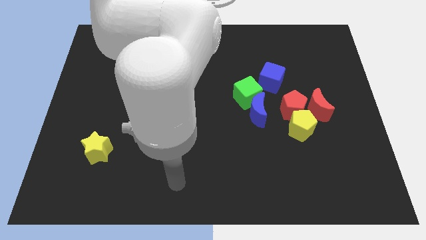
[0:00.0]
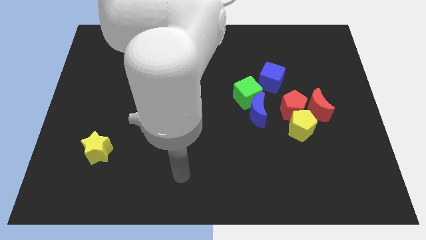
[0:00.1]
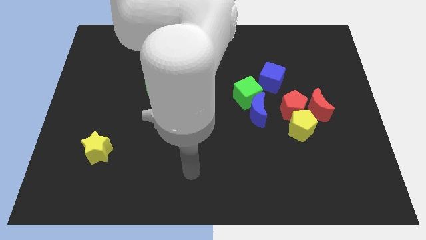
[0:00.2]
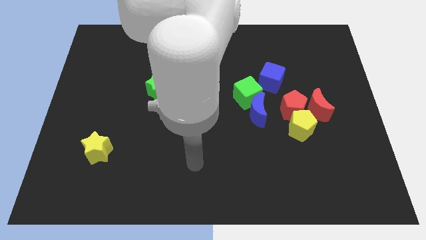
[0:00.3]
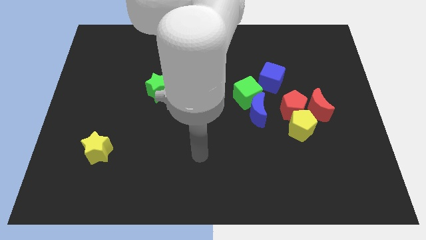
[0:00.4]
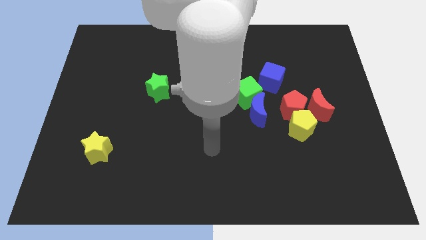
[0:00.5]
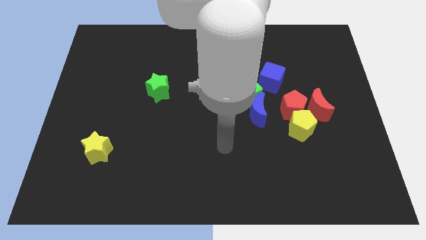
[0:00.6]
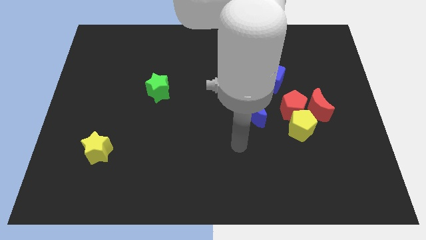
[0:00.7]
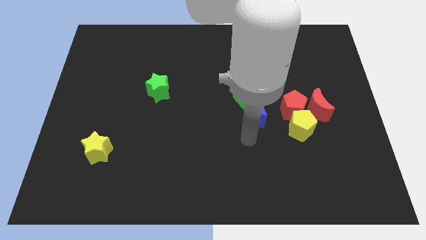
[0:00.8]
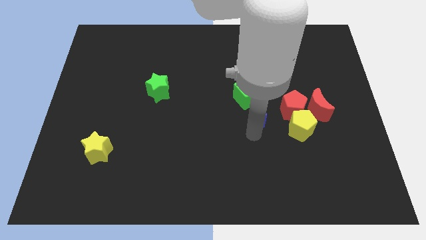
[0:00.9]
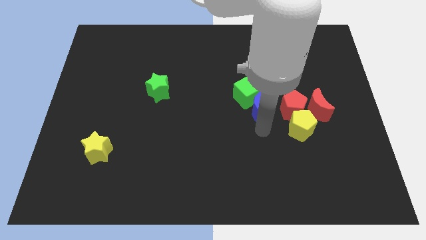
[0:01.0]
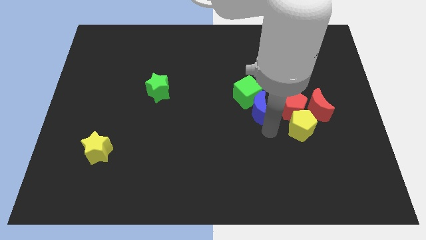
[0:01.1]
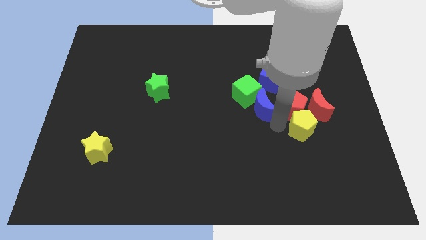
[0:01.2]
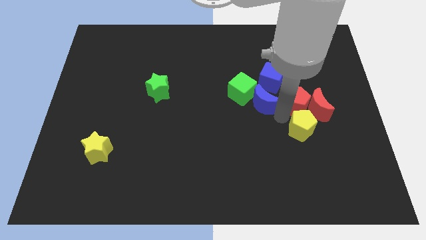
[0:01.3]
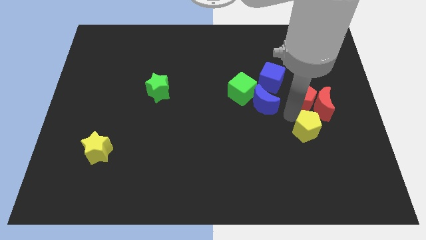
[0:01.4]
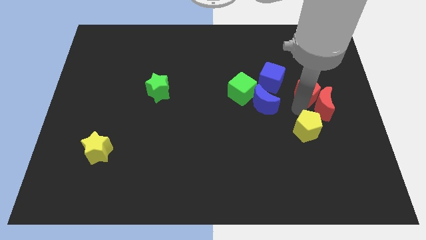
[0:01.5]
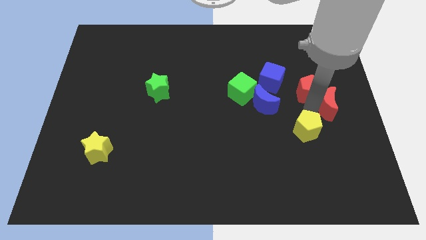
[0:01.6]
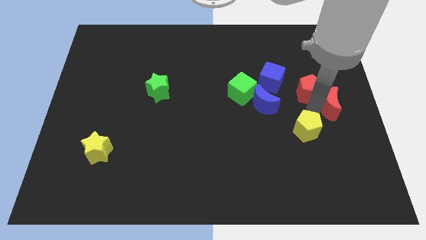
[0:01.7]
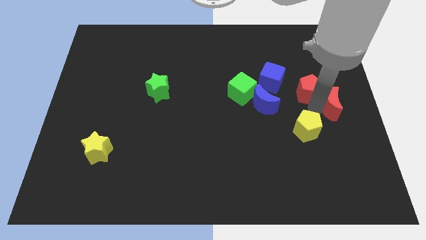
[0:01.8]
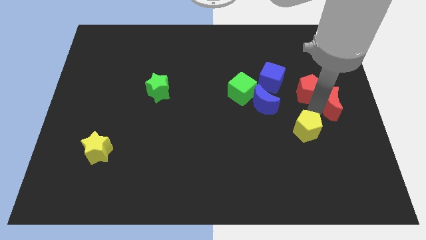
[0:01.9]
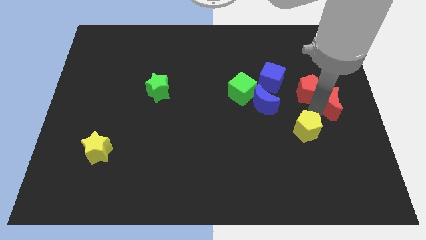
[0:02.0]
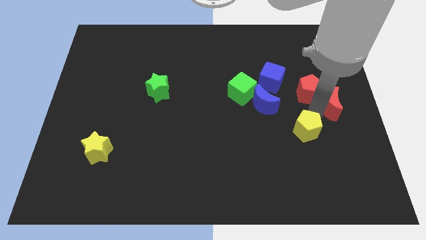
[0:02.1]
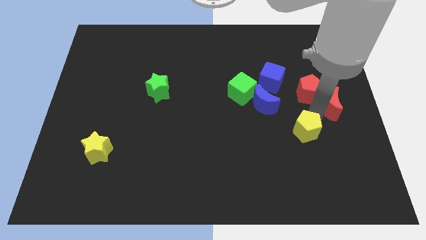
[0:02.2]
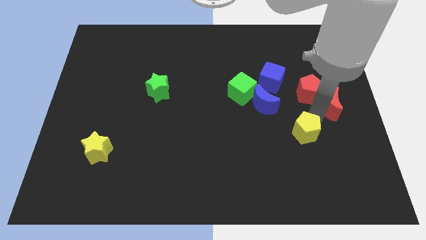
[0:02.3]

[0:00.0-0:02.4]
pull the yellow pentagon apart from the red pentagon and red moon

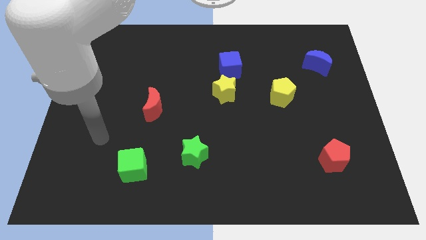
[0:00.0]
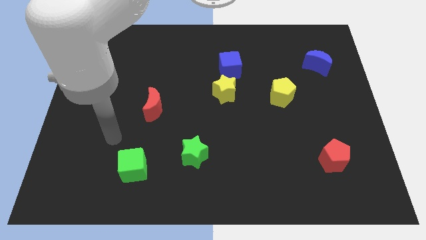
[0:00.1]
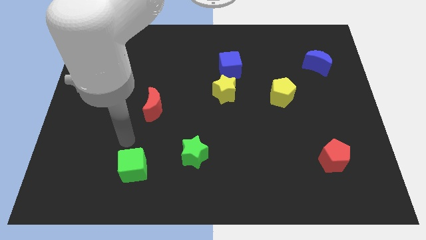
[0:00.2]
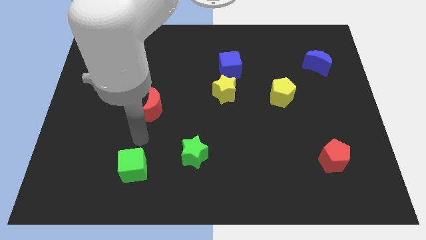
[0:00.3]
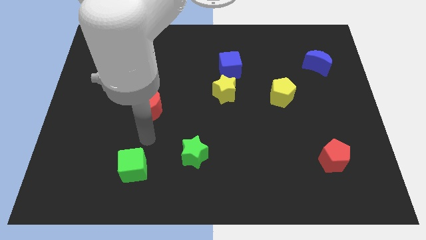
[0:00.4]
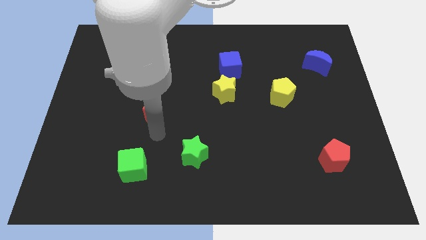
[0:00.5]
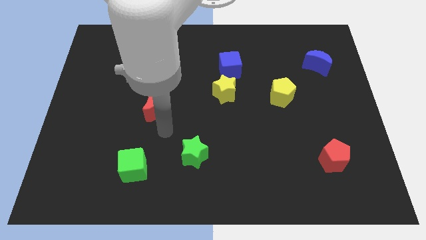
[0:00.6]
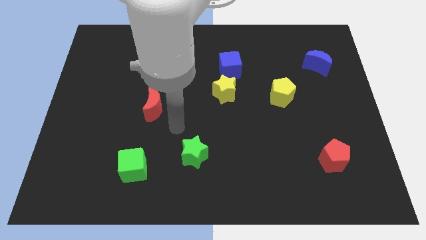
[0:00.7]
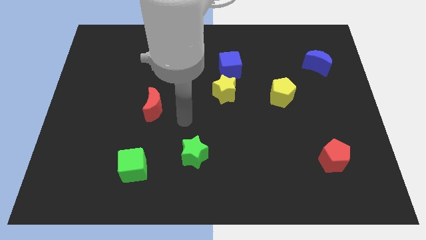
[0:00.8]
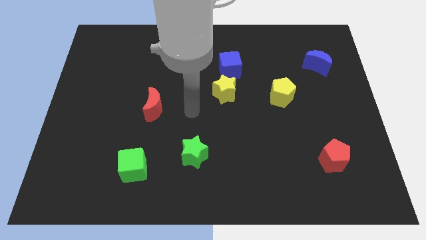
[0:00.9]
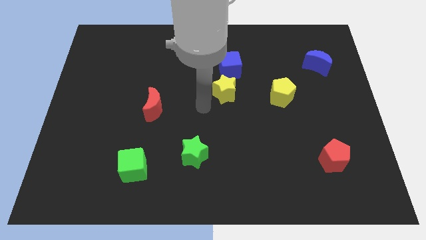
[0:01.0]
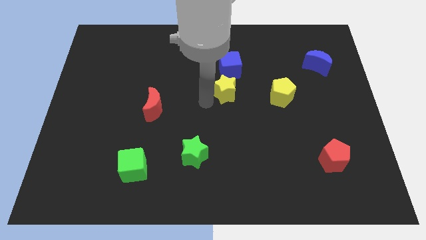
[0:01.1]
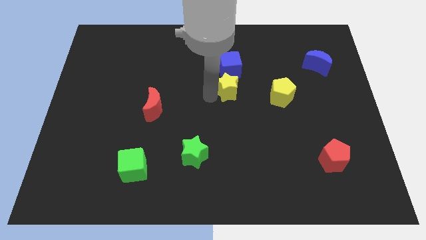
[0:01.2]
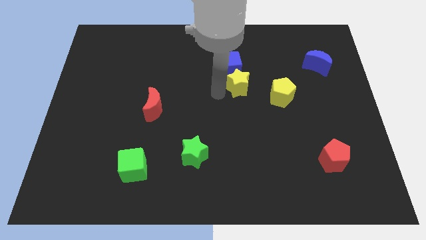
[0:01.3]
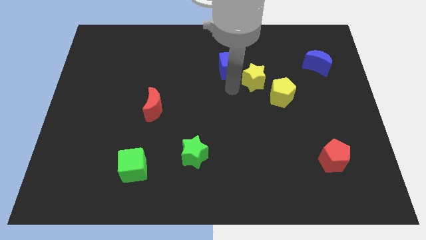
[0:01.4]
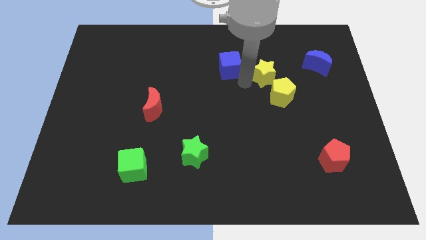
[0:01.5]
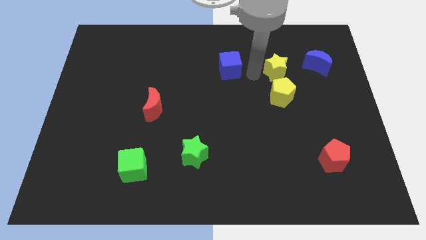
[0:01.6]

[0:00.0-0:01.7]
pull the blue cube apart from the yellow star

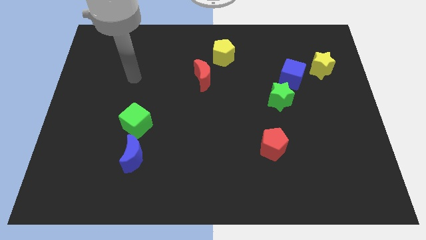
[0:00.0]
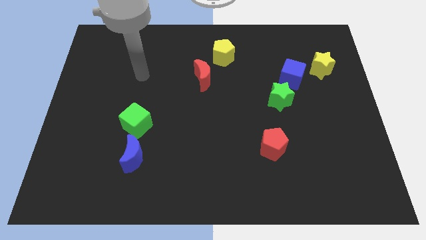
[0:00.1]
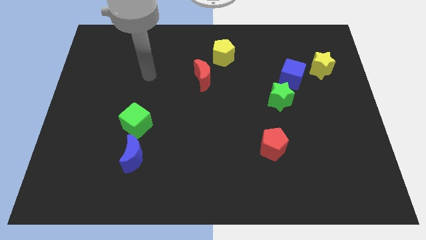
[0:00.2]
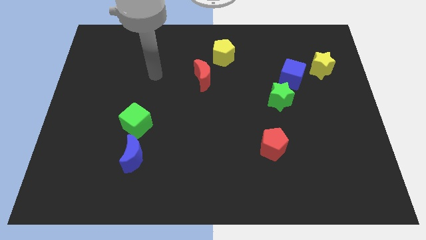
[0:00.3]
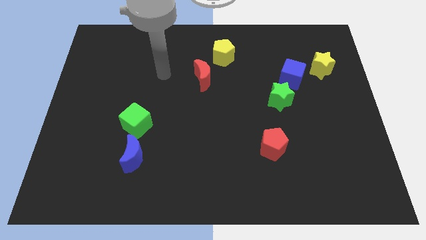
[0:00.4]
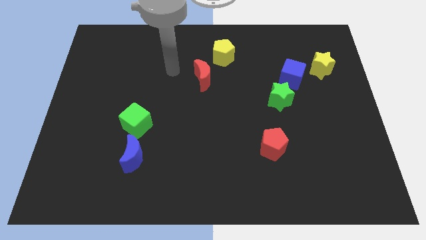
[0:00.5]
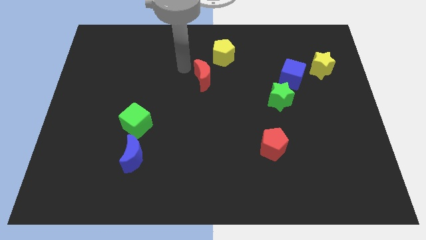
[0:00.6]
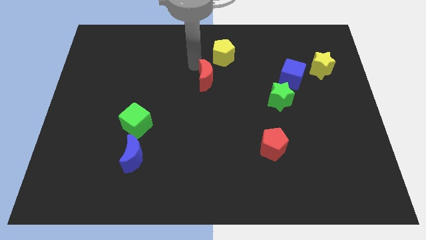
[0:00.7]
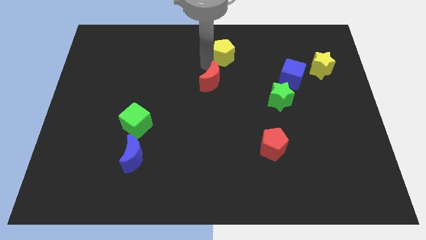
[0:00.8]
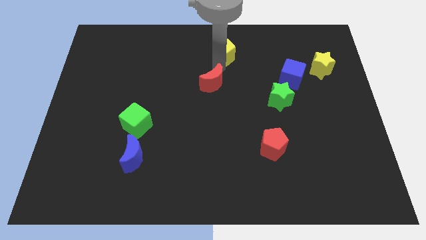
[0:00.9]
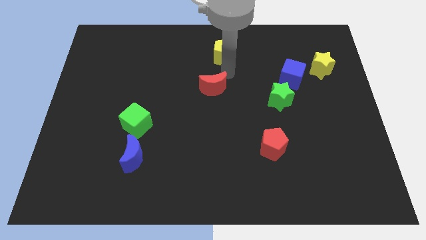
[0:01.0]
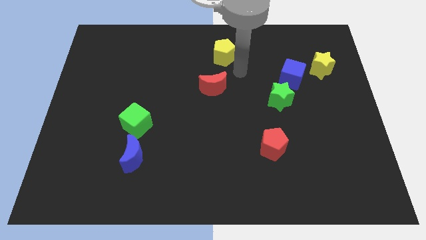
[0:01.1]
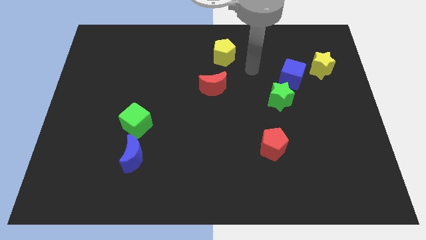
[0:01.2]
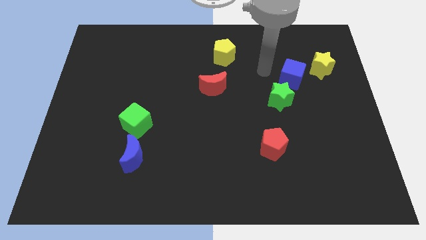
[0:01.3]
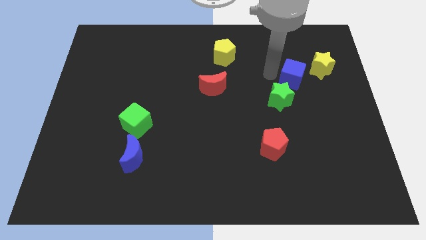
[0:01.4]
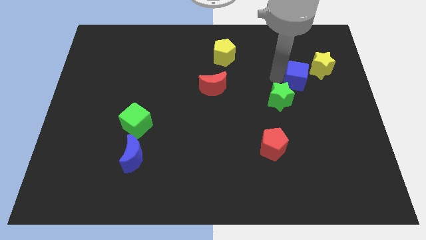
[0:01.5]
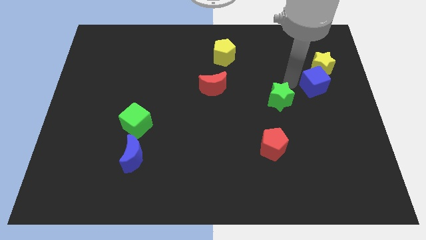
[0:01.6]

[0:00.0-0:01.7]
pull the green star apart from the blue cube

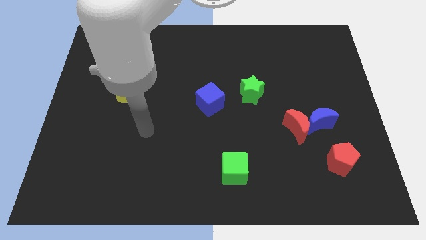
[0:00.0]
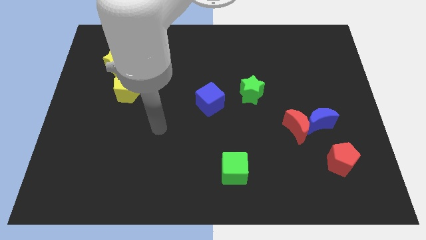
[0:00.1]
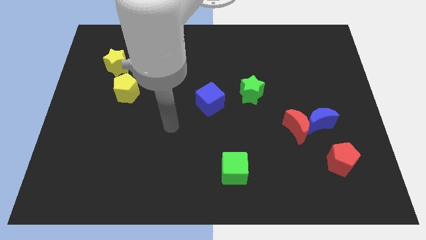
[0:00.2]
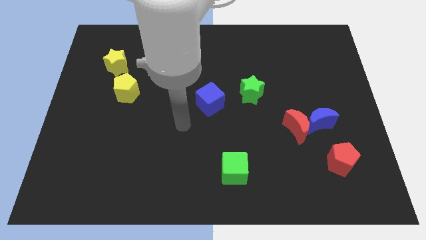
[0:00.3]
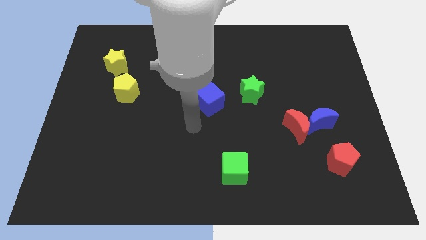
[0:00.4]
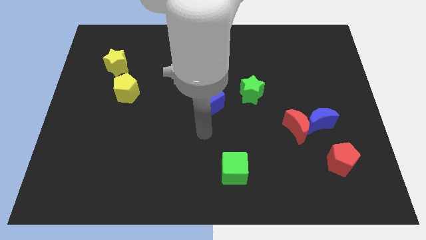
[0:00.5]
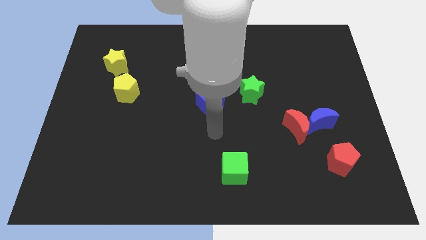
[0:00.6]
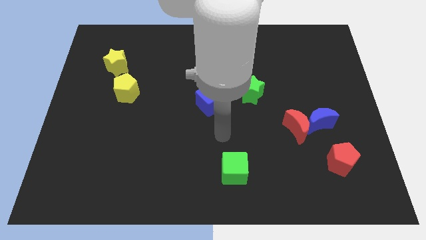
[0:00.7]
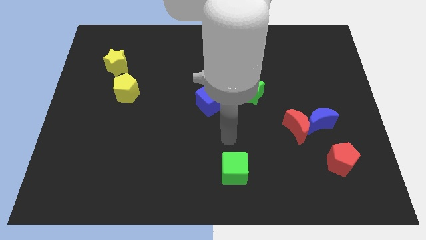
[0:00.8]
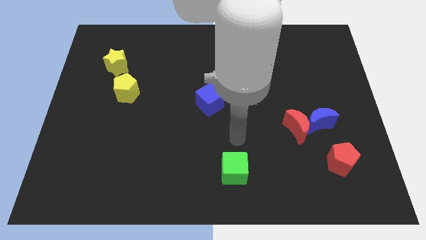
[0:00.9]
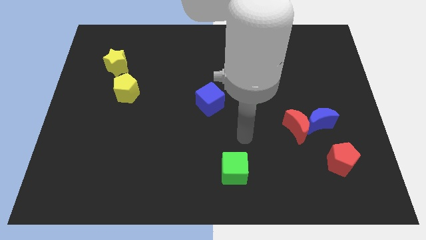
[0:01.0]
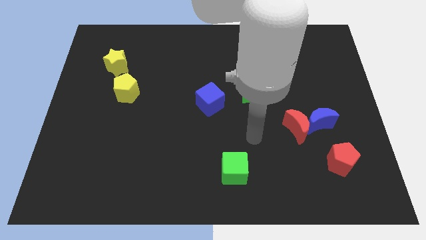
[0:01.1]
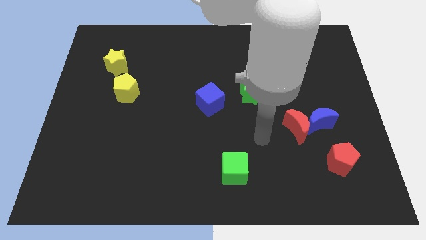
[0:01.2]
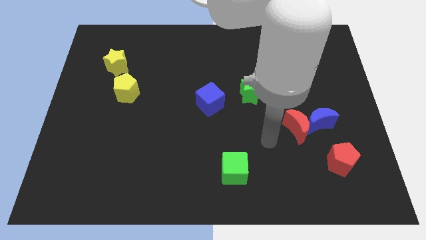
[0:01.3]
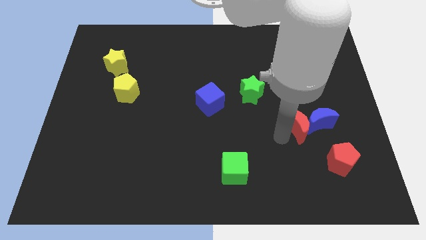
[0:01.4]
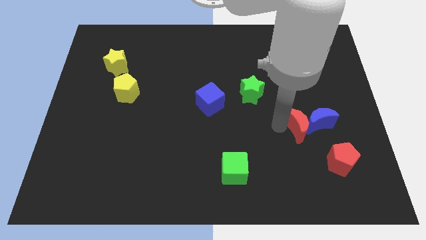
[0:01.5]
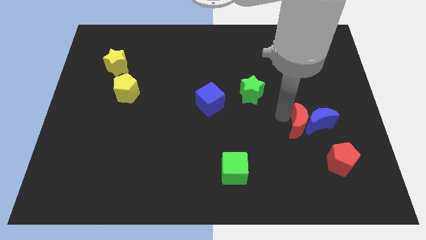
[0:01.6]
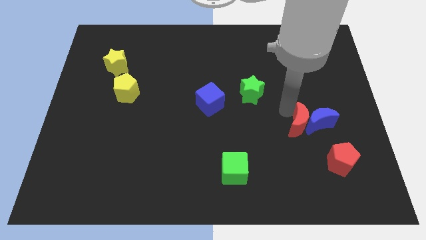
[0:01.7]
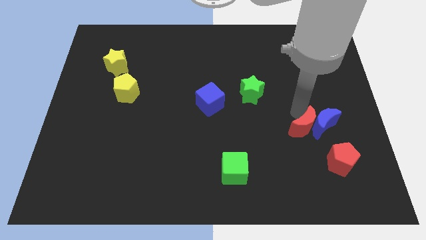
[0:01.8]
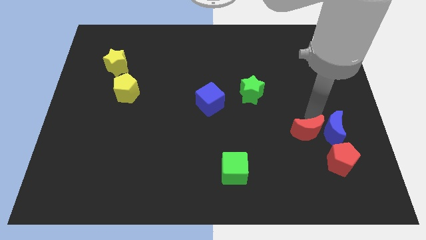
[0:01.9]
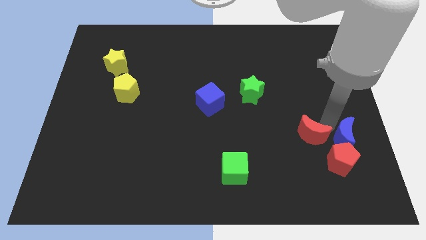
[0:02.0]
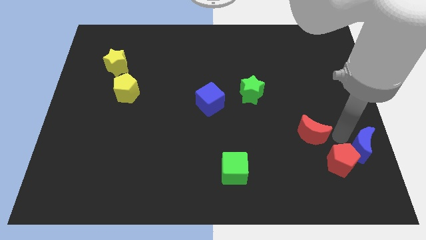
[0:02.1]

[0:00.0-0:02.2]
move the red moon away from the blue moon

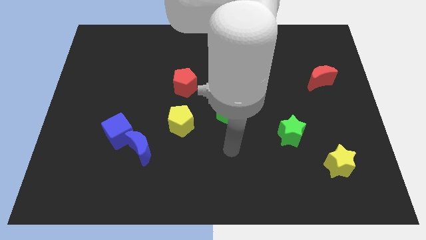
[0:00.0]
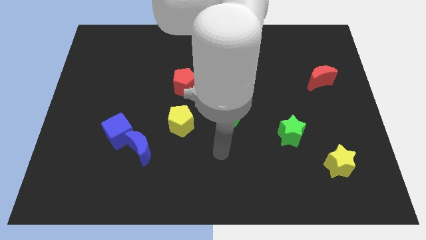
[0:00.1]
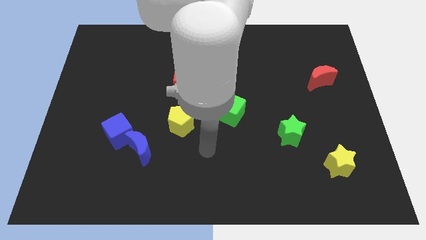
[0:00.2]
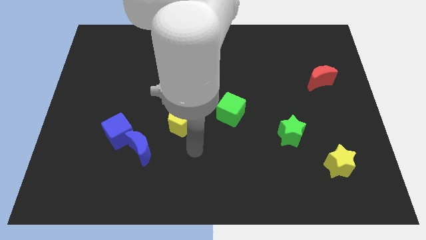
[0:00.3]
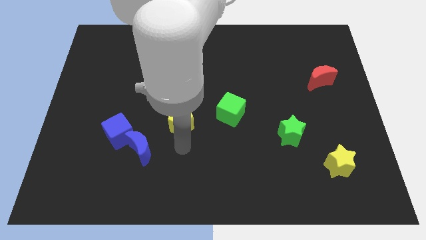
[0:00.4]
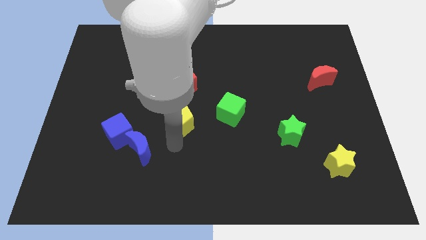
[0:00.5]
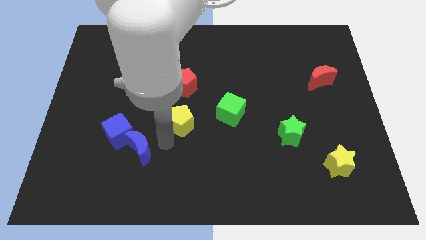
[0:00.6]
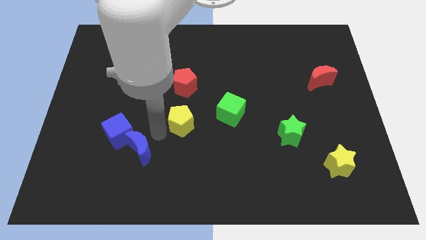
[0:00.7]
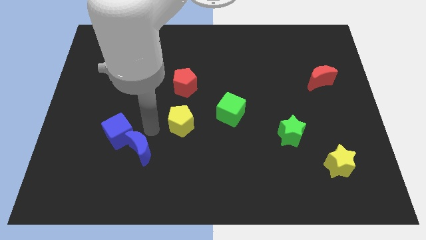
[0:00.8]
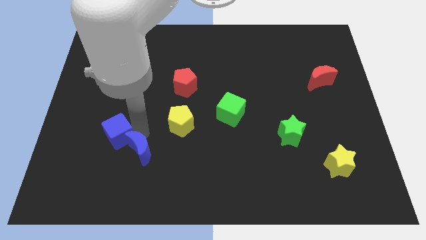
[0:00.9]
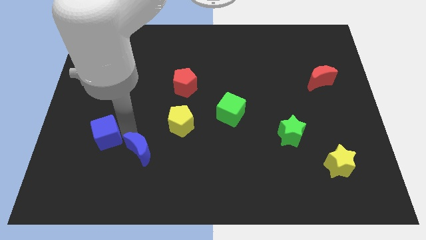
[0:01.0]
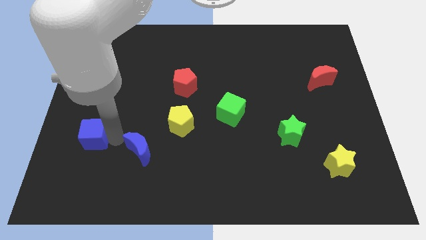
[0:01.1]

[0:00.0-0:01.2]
separate the blue moon from the blue cube

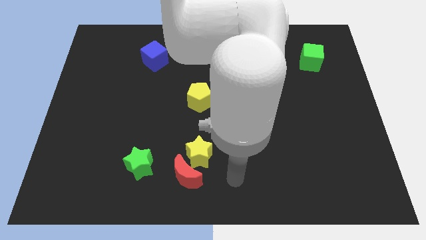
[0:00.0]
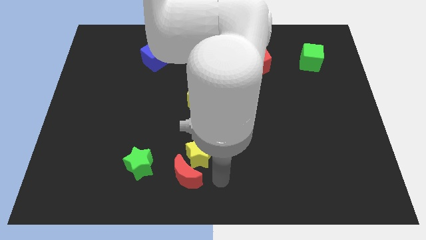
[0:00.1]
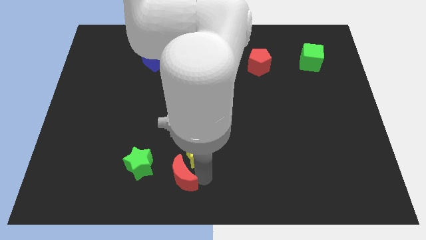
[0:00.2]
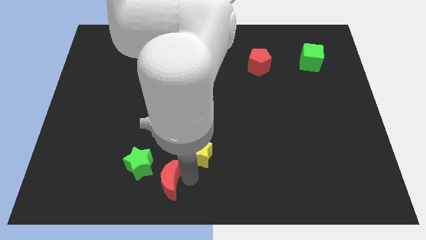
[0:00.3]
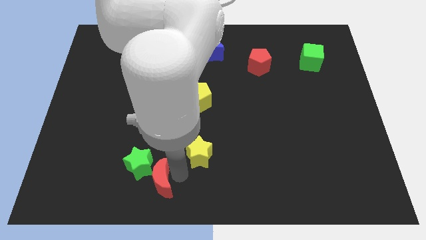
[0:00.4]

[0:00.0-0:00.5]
move the yellow star away from the red moon
